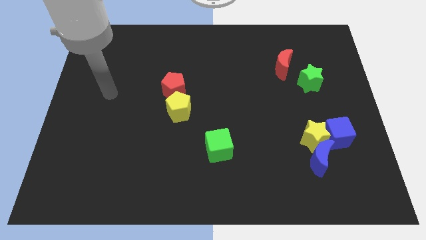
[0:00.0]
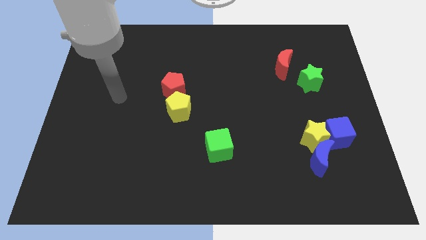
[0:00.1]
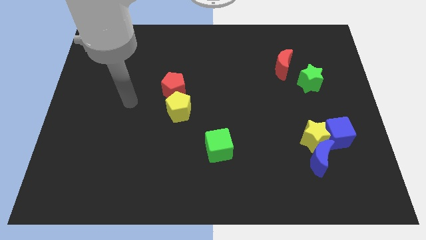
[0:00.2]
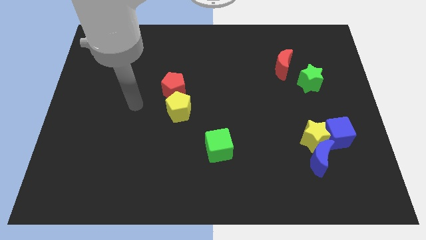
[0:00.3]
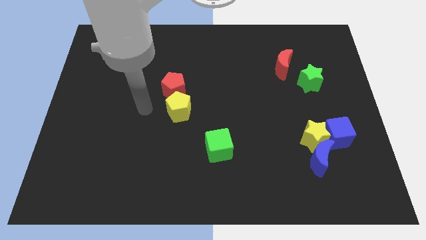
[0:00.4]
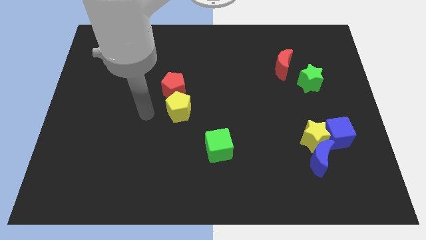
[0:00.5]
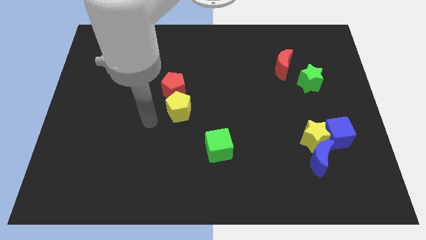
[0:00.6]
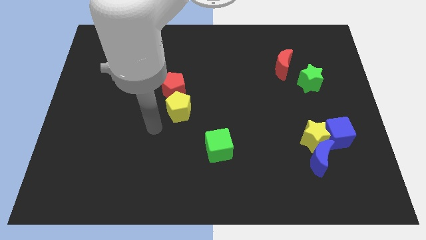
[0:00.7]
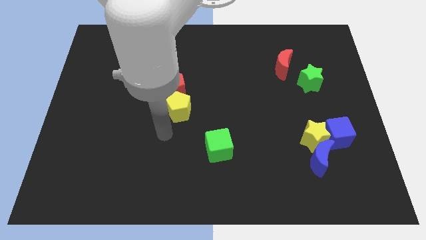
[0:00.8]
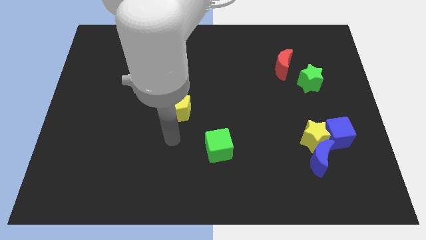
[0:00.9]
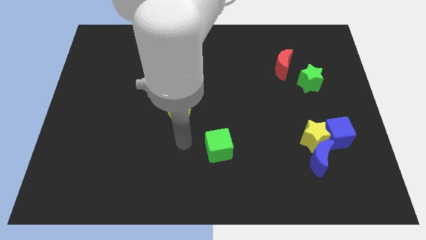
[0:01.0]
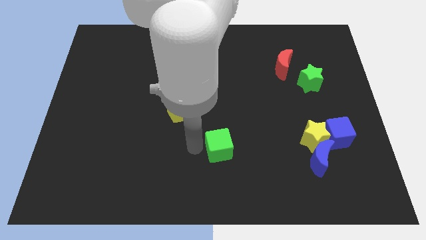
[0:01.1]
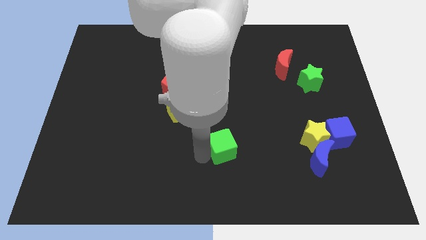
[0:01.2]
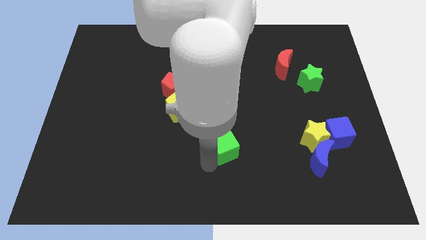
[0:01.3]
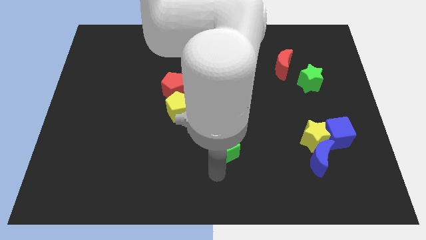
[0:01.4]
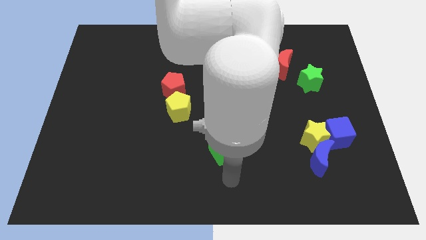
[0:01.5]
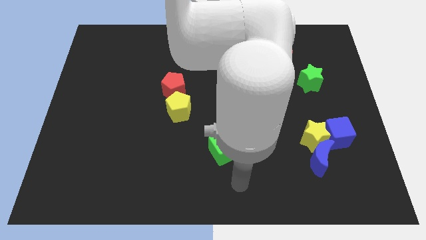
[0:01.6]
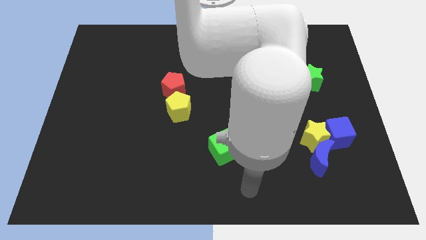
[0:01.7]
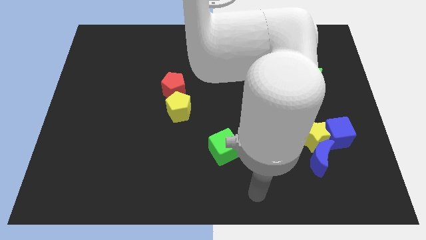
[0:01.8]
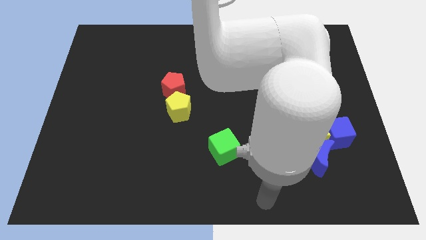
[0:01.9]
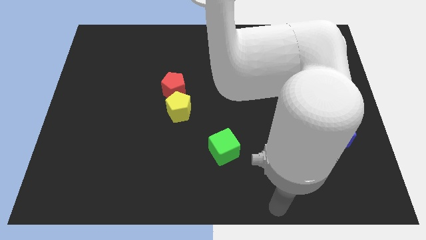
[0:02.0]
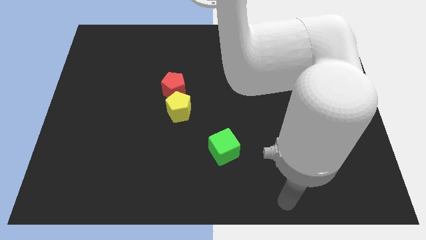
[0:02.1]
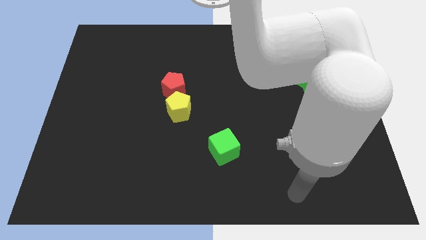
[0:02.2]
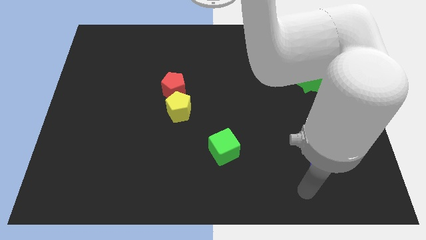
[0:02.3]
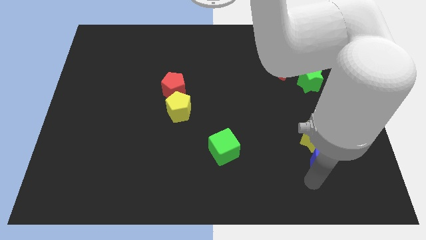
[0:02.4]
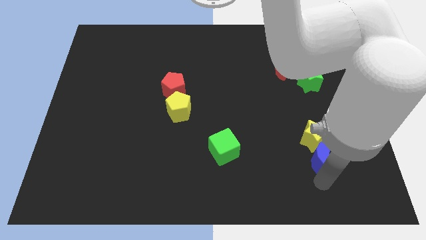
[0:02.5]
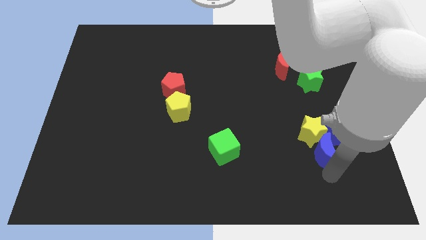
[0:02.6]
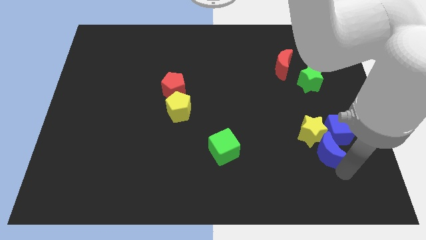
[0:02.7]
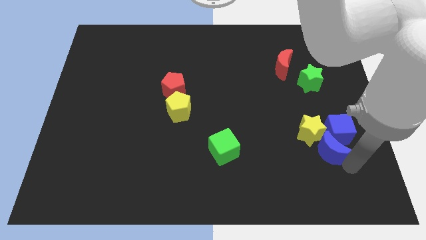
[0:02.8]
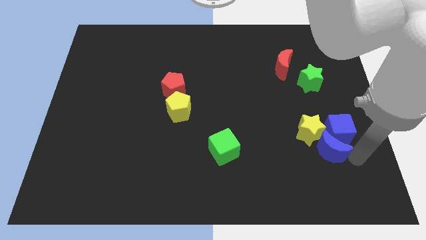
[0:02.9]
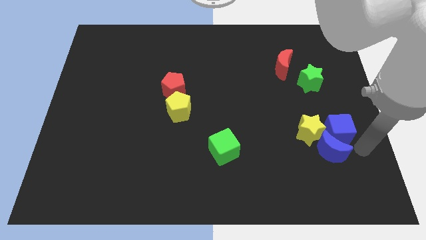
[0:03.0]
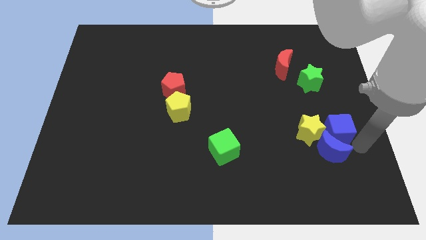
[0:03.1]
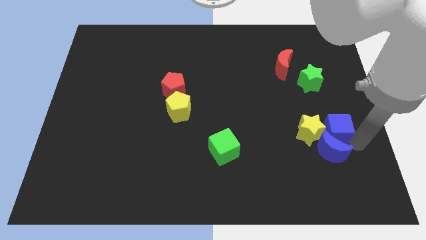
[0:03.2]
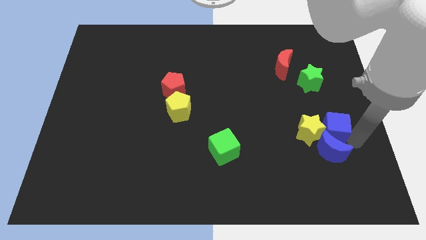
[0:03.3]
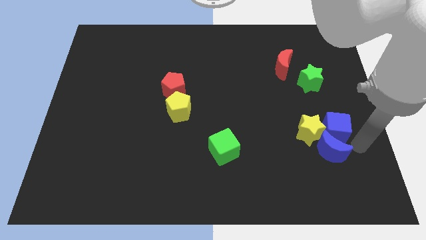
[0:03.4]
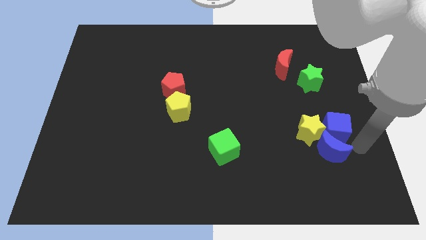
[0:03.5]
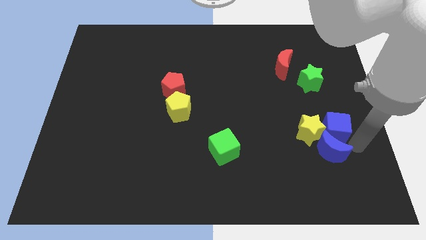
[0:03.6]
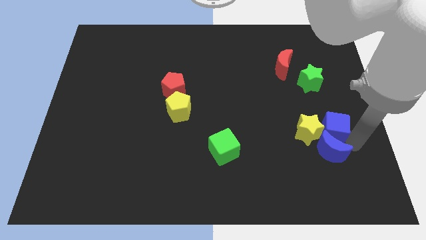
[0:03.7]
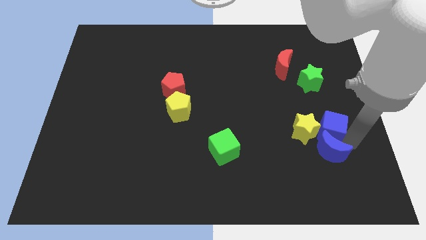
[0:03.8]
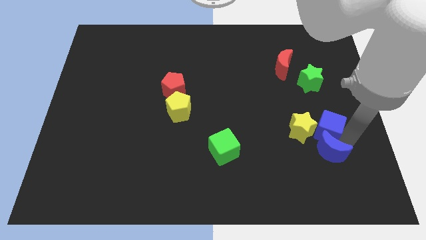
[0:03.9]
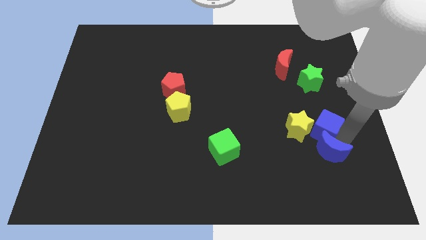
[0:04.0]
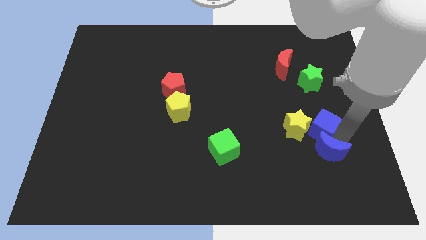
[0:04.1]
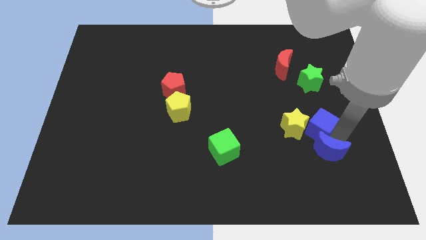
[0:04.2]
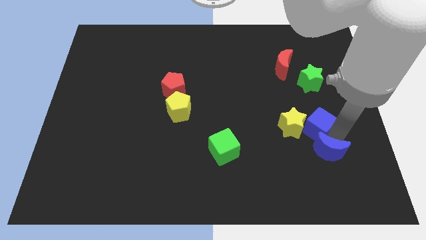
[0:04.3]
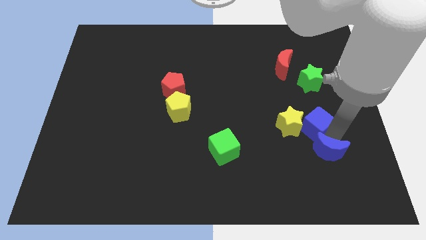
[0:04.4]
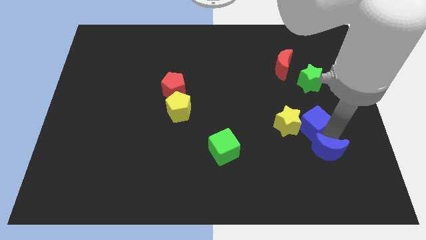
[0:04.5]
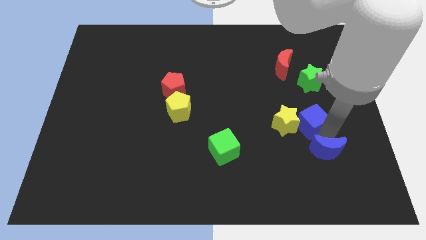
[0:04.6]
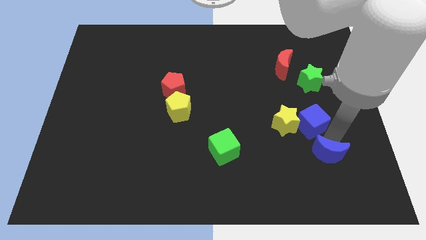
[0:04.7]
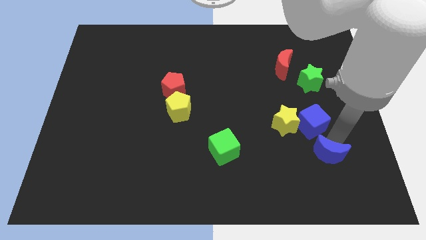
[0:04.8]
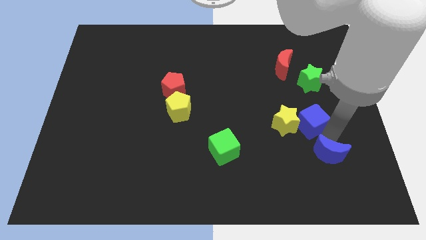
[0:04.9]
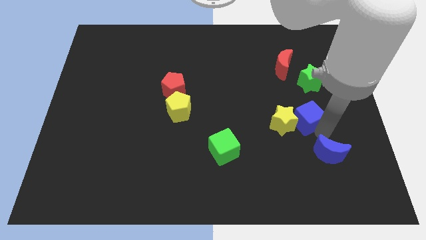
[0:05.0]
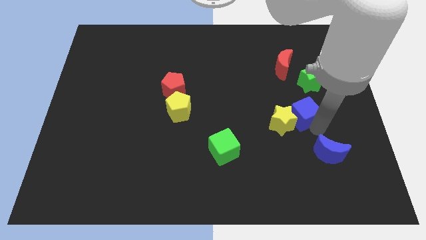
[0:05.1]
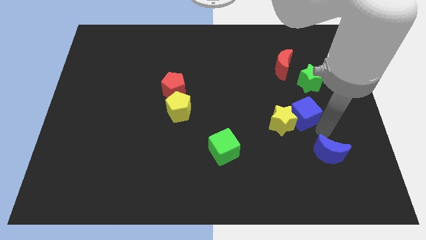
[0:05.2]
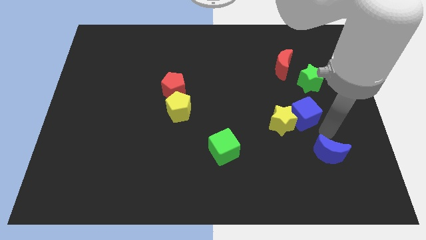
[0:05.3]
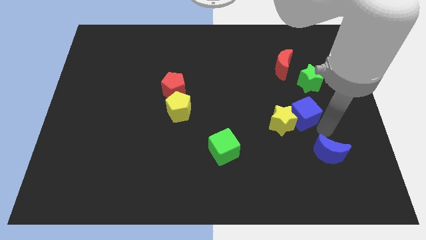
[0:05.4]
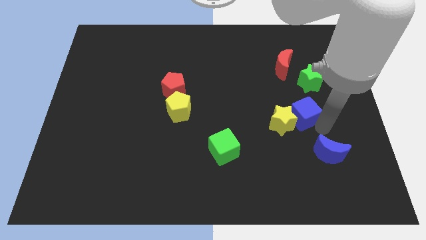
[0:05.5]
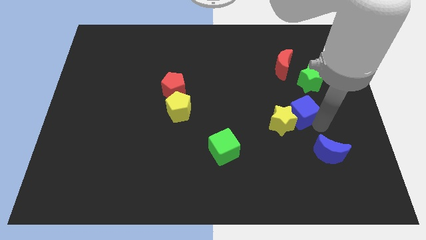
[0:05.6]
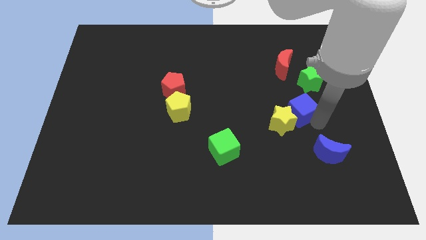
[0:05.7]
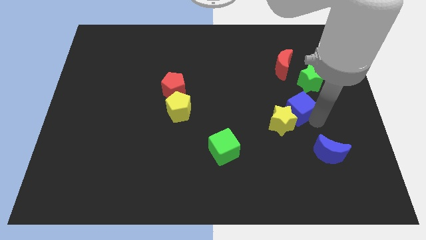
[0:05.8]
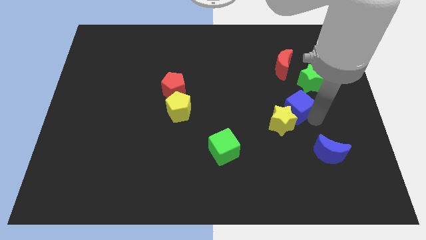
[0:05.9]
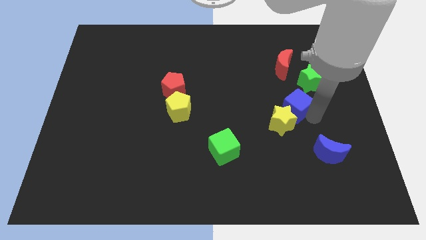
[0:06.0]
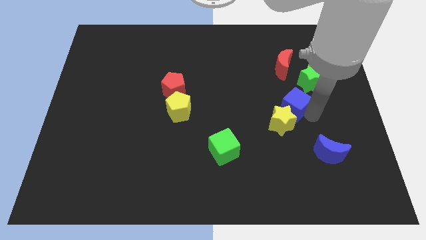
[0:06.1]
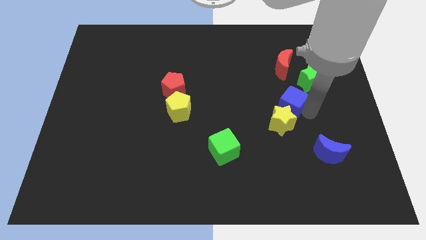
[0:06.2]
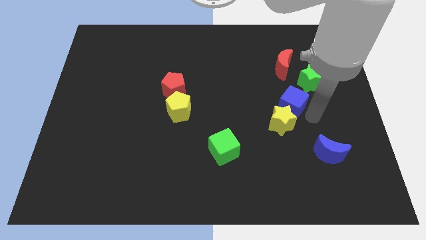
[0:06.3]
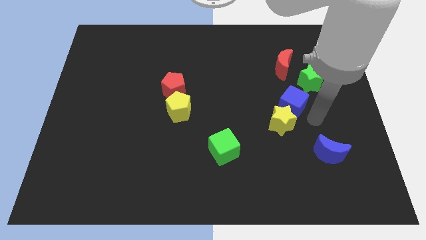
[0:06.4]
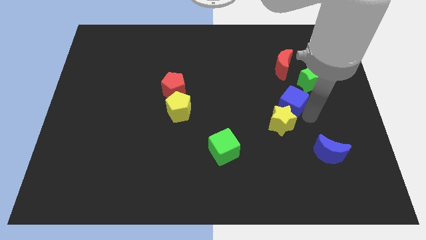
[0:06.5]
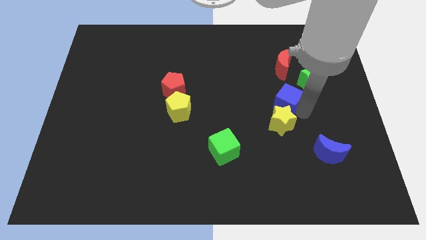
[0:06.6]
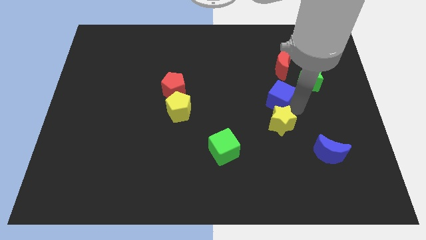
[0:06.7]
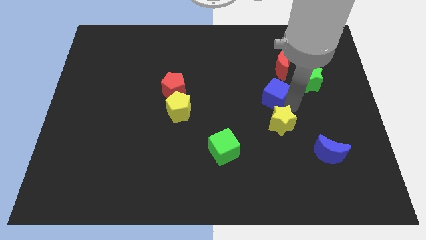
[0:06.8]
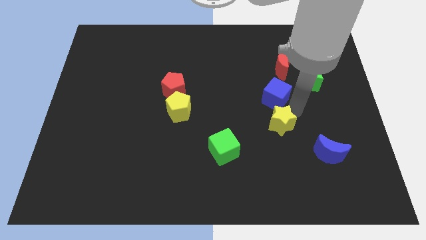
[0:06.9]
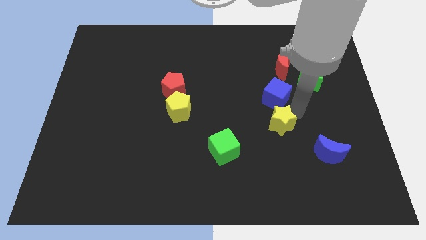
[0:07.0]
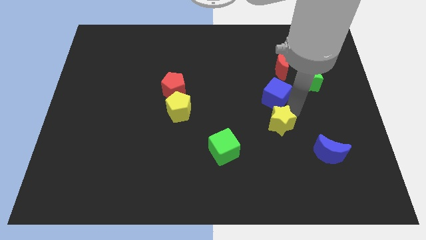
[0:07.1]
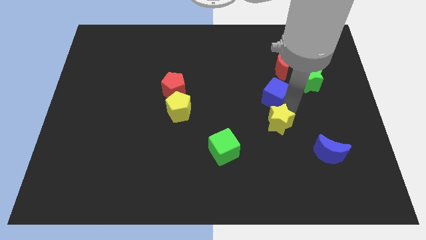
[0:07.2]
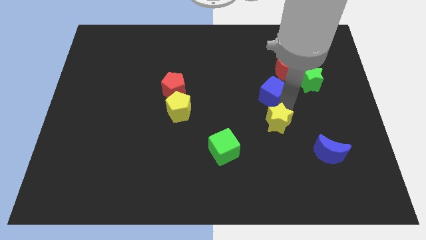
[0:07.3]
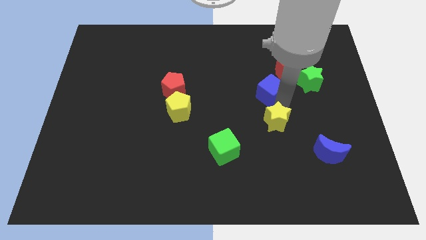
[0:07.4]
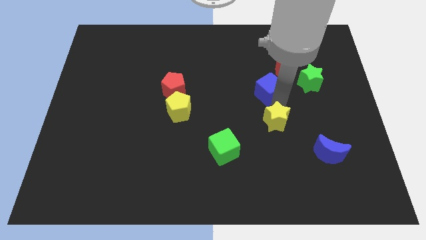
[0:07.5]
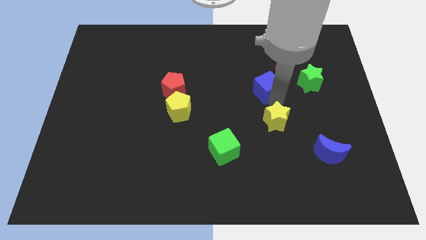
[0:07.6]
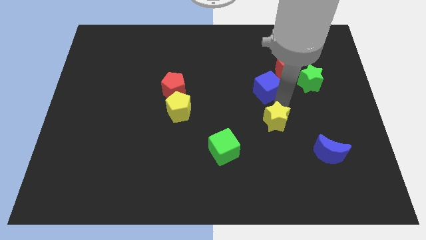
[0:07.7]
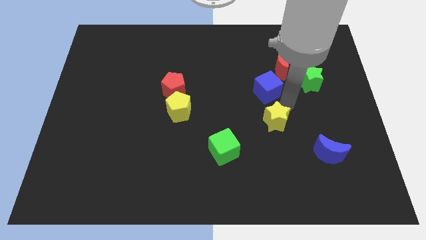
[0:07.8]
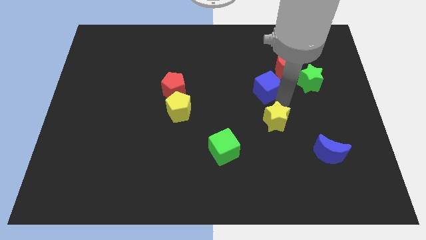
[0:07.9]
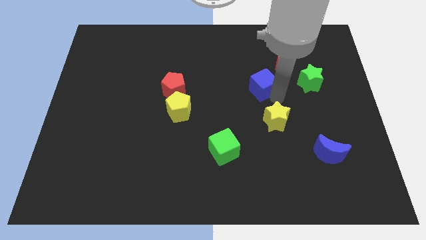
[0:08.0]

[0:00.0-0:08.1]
push the blue cube up and to the left
